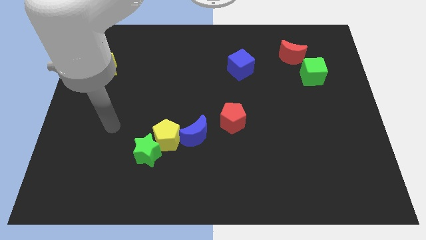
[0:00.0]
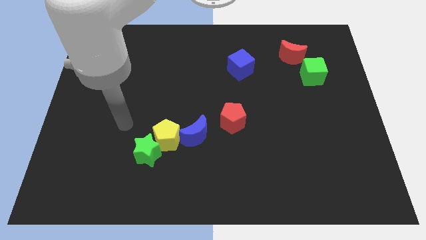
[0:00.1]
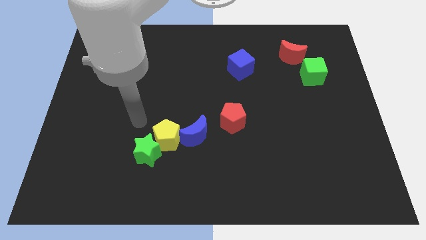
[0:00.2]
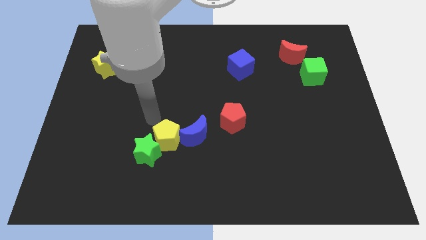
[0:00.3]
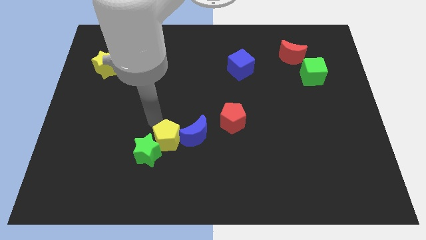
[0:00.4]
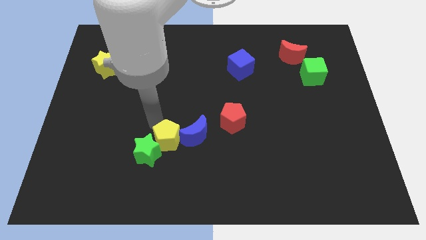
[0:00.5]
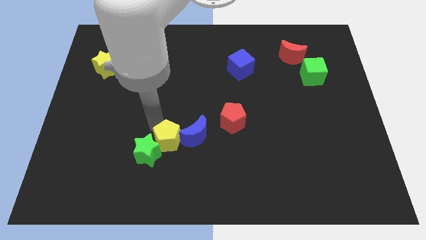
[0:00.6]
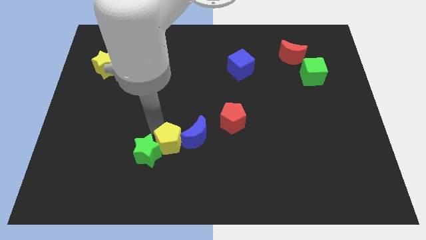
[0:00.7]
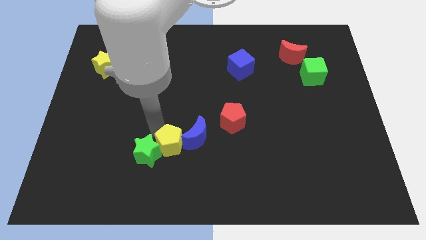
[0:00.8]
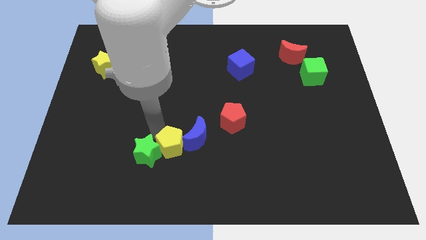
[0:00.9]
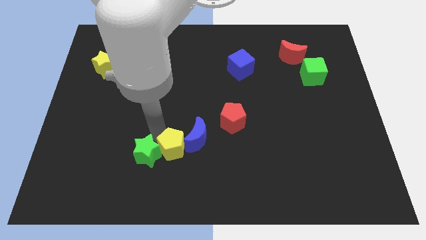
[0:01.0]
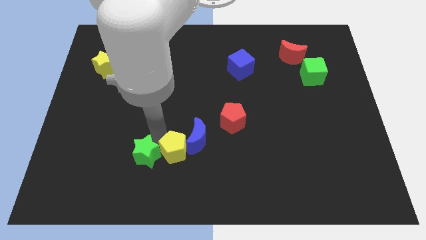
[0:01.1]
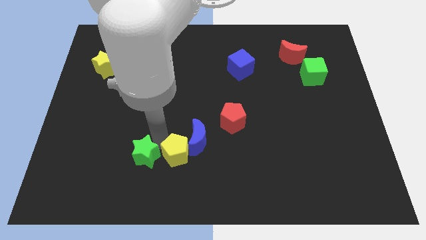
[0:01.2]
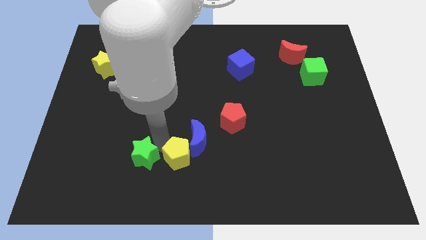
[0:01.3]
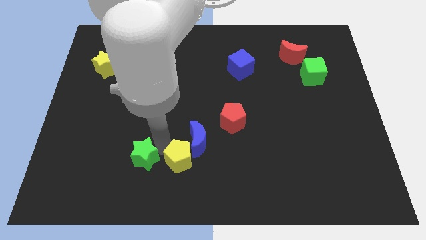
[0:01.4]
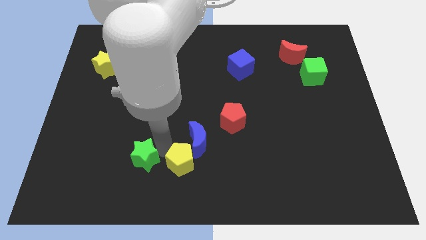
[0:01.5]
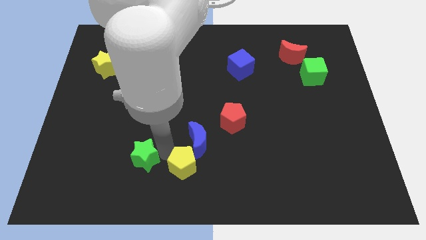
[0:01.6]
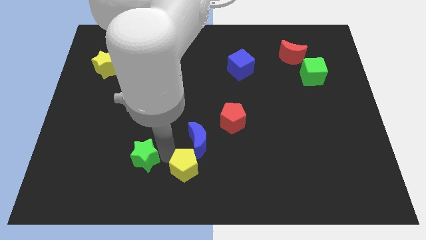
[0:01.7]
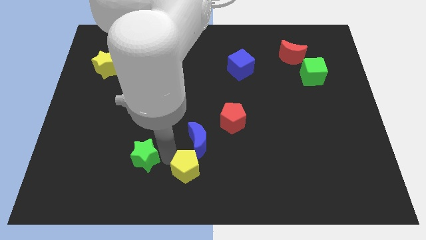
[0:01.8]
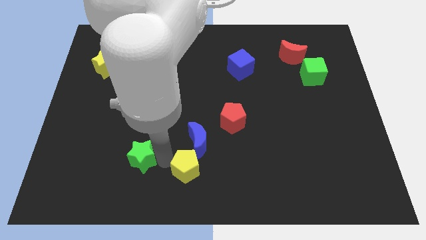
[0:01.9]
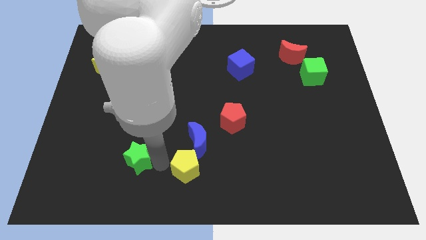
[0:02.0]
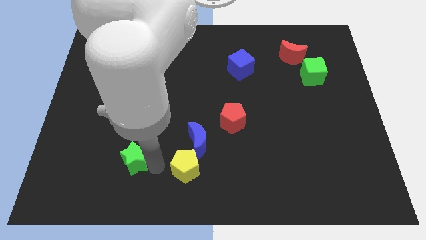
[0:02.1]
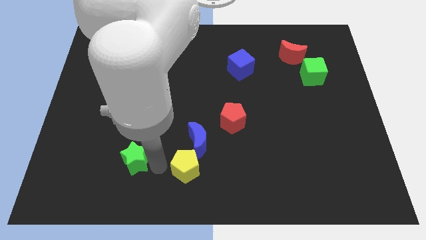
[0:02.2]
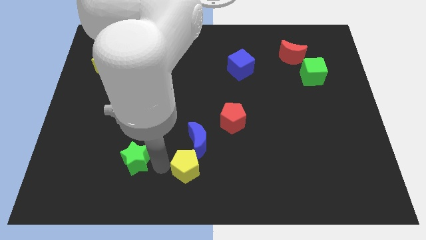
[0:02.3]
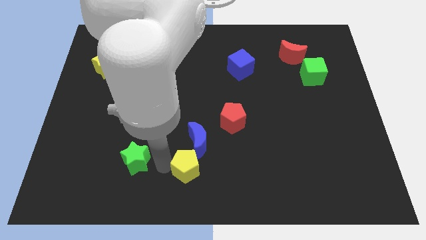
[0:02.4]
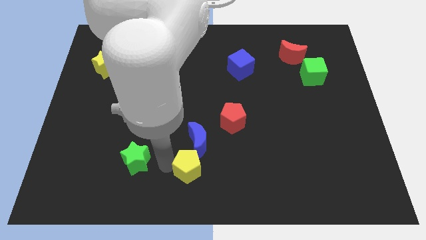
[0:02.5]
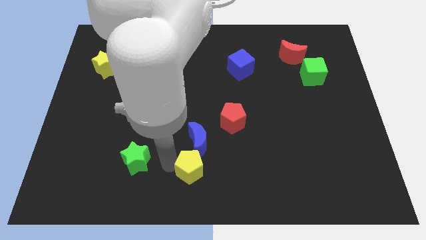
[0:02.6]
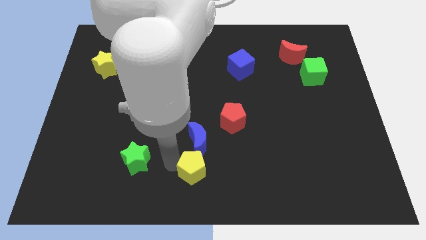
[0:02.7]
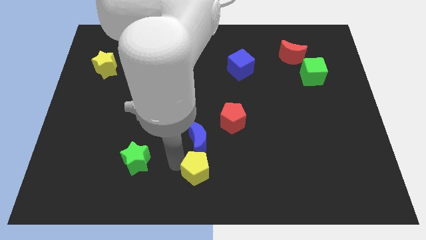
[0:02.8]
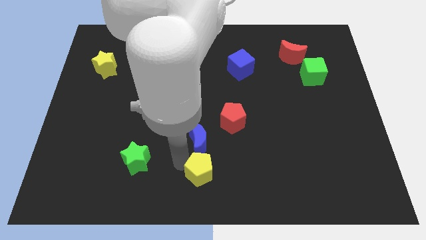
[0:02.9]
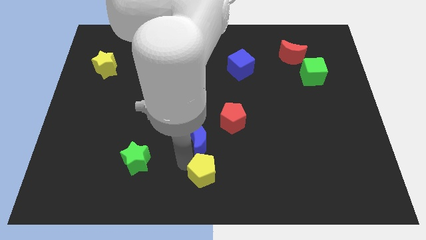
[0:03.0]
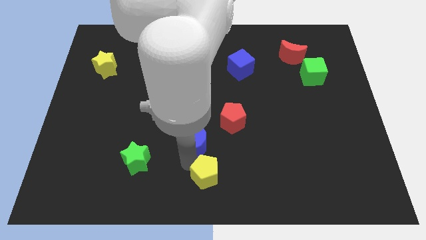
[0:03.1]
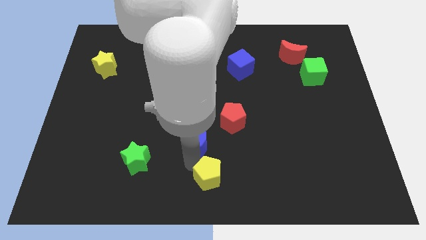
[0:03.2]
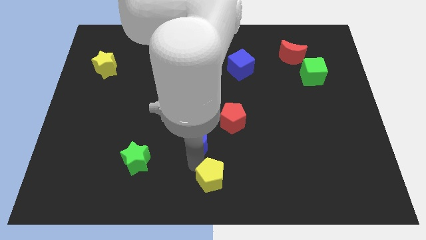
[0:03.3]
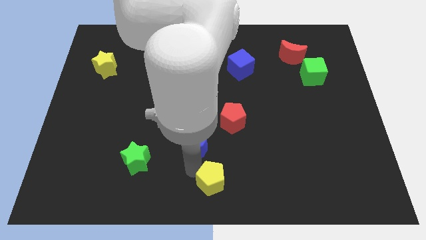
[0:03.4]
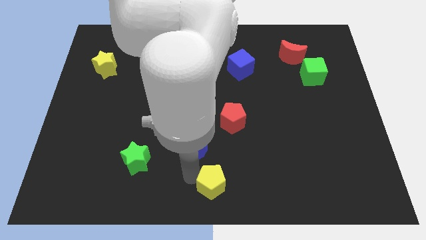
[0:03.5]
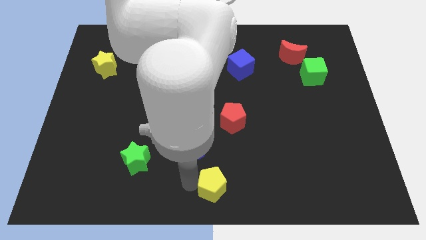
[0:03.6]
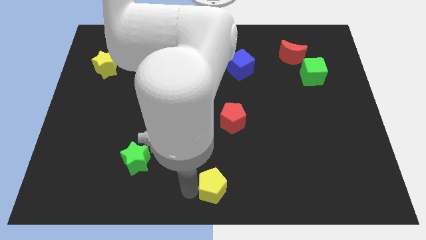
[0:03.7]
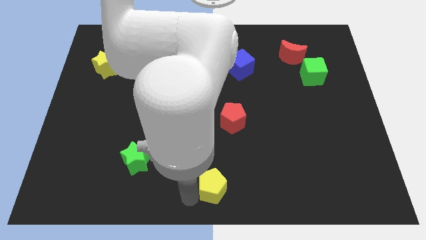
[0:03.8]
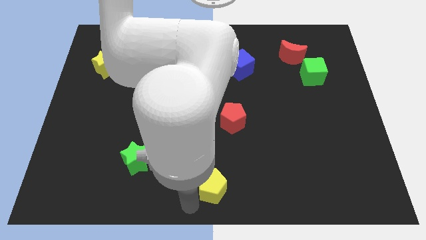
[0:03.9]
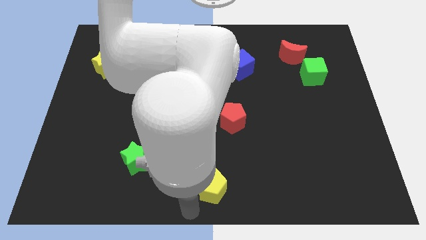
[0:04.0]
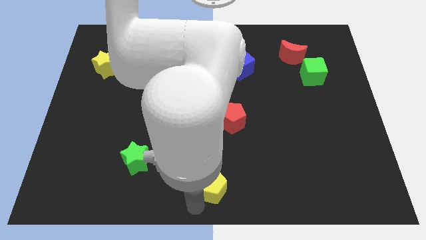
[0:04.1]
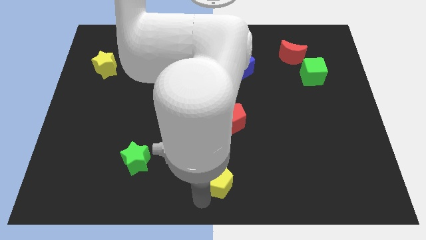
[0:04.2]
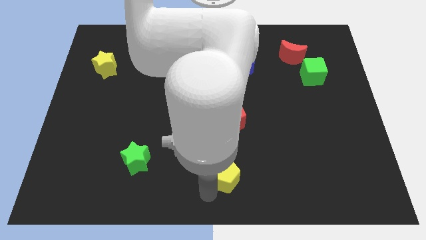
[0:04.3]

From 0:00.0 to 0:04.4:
push the yellow pentagon somewhat right

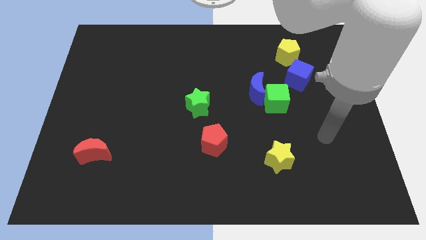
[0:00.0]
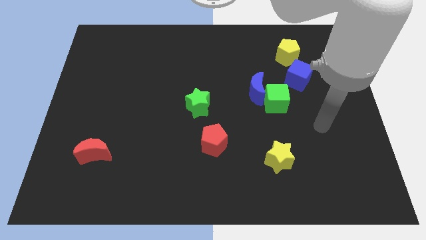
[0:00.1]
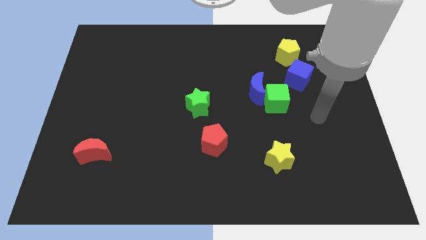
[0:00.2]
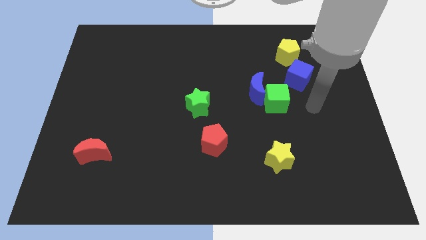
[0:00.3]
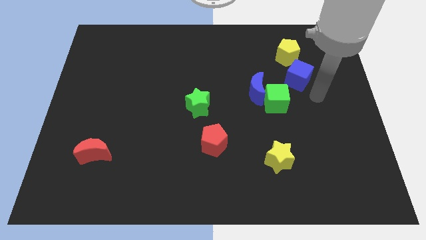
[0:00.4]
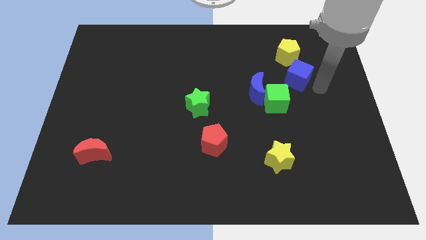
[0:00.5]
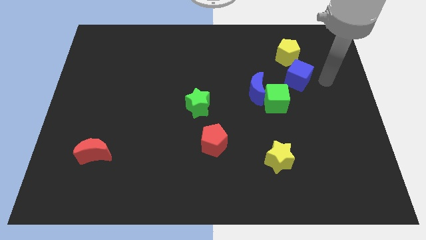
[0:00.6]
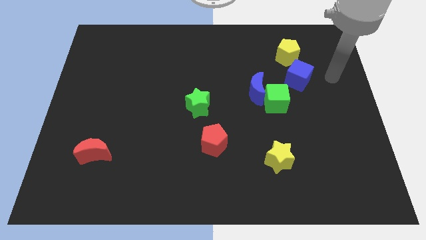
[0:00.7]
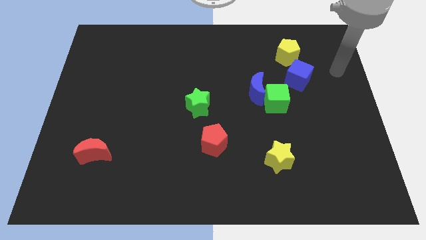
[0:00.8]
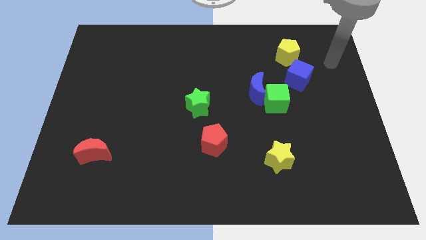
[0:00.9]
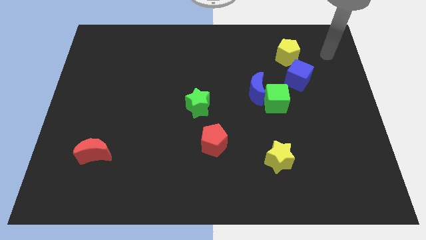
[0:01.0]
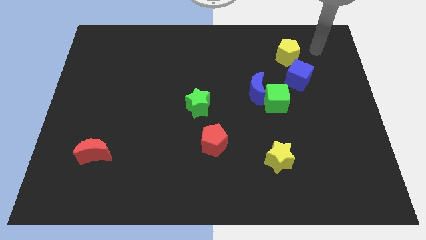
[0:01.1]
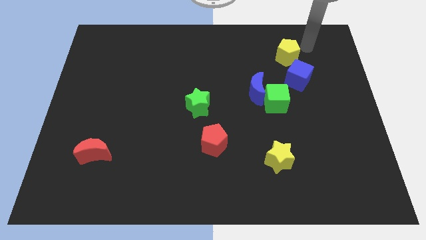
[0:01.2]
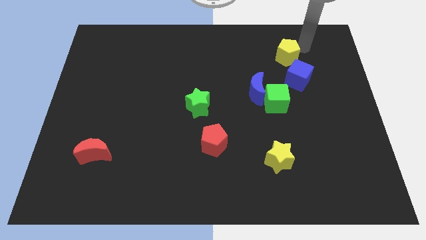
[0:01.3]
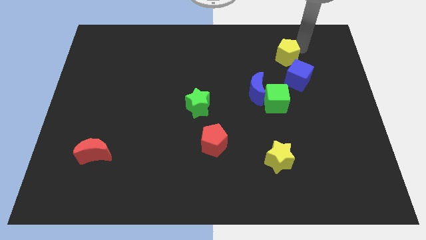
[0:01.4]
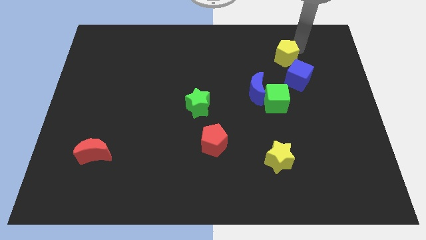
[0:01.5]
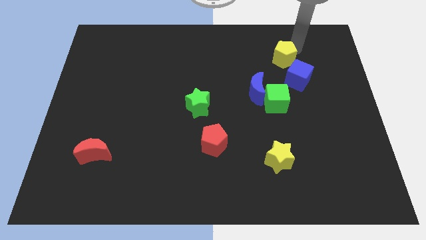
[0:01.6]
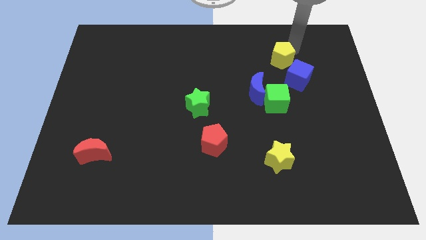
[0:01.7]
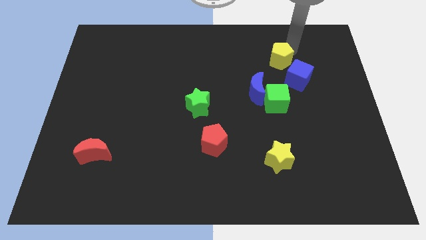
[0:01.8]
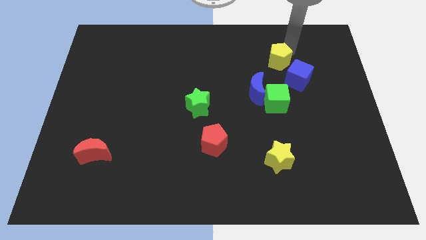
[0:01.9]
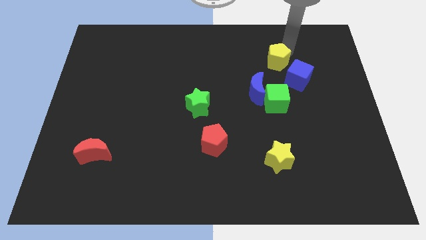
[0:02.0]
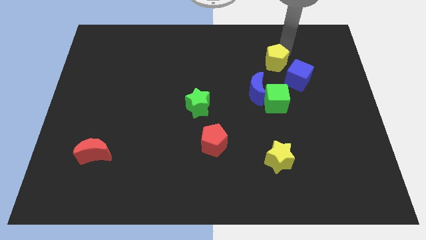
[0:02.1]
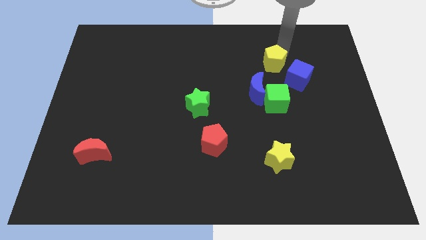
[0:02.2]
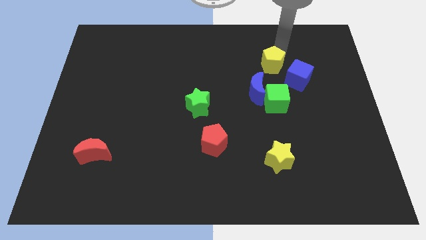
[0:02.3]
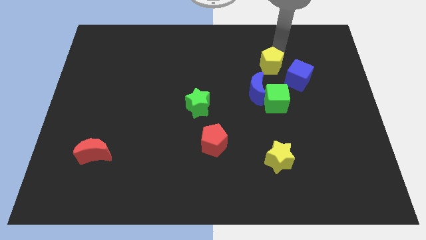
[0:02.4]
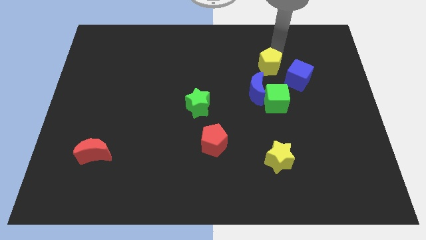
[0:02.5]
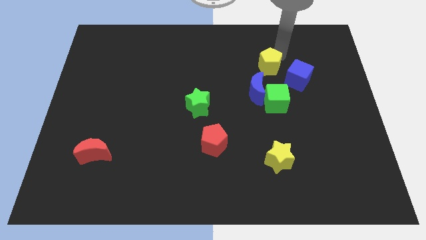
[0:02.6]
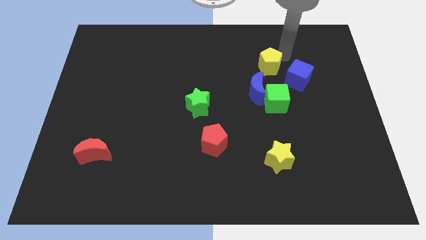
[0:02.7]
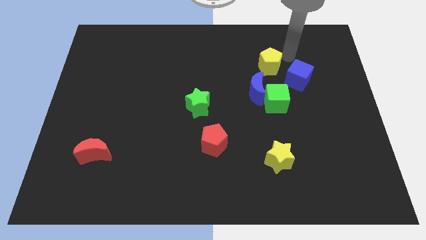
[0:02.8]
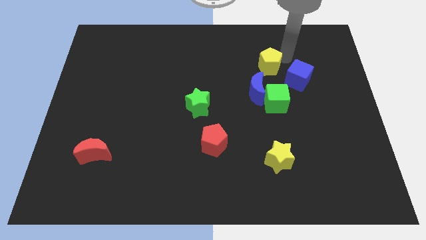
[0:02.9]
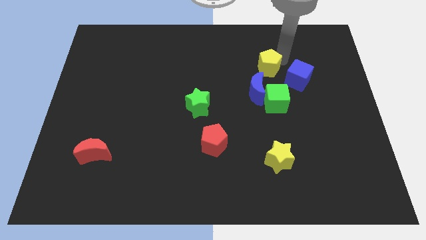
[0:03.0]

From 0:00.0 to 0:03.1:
push the yellow pentagon diagonally down and left a little

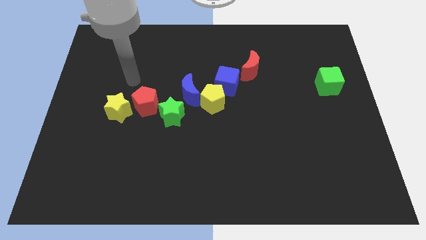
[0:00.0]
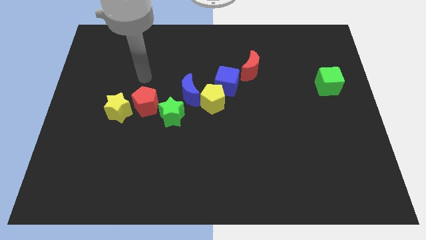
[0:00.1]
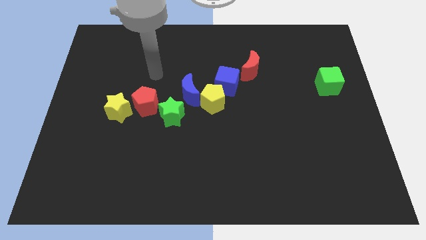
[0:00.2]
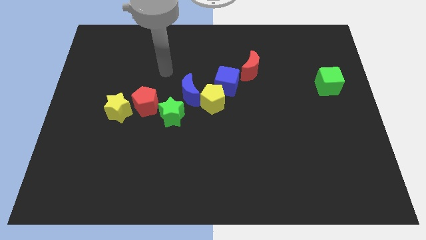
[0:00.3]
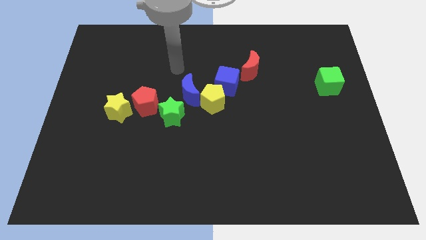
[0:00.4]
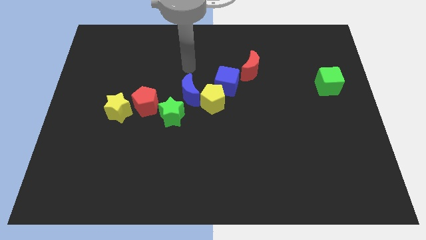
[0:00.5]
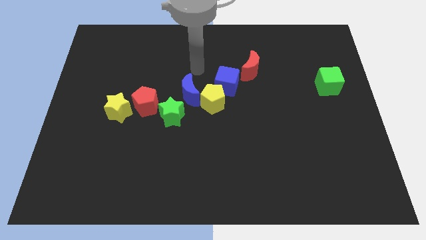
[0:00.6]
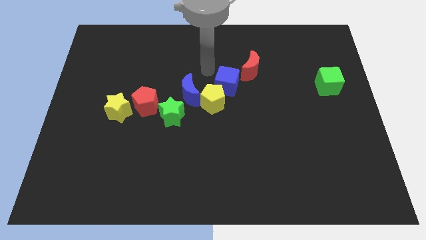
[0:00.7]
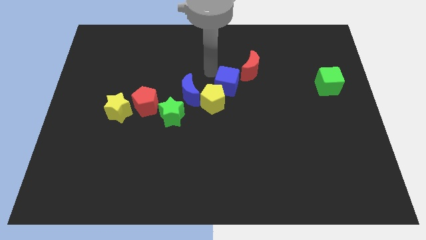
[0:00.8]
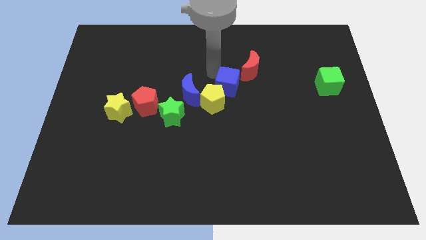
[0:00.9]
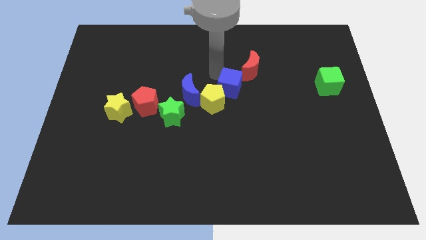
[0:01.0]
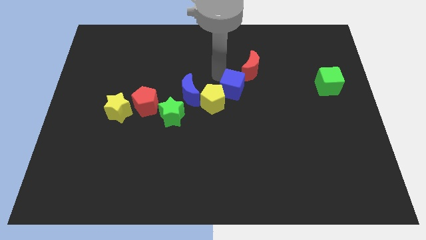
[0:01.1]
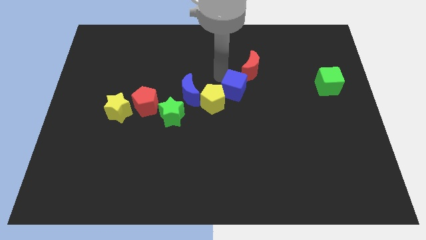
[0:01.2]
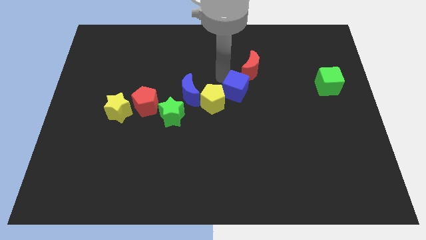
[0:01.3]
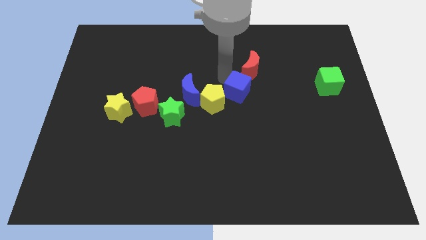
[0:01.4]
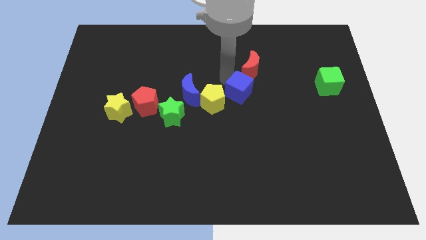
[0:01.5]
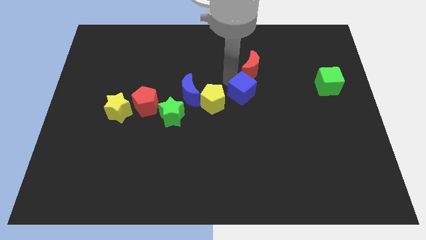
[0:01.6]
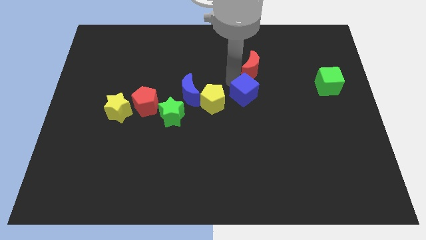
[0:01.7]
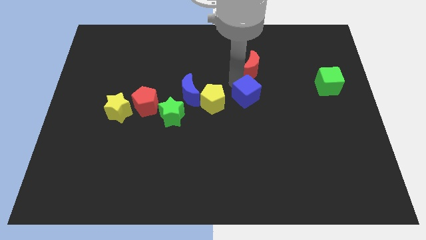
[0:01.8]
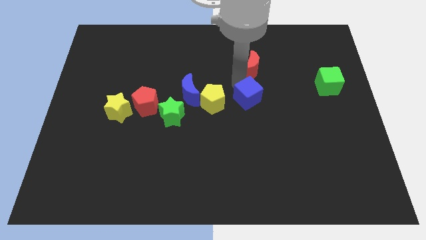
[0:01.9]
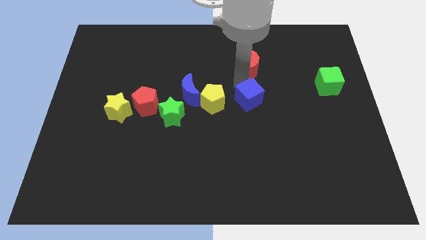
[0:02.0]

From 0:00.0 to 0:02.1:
move the blue cube a bit down and right
